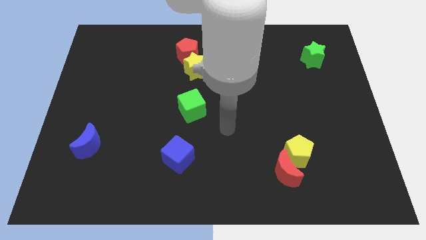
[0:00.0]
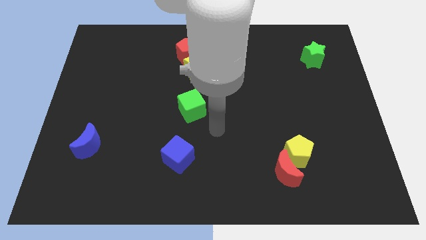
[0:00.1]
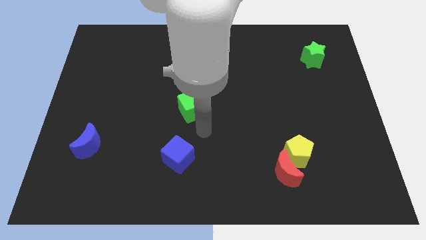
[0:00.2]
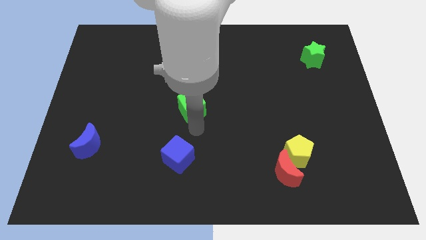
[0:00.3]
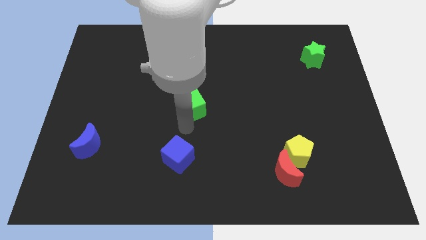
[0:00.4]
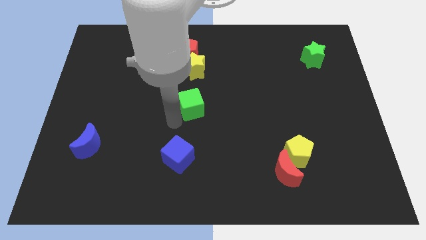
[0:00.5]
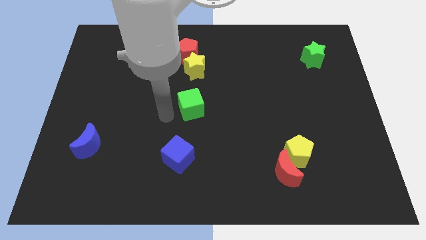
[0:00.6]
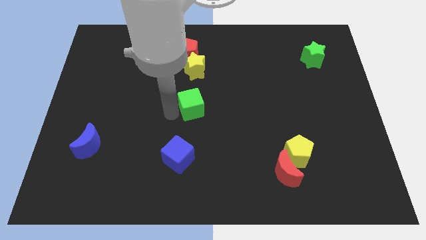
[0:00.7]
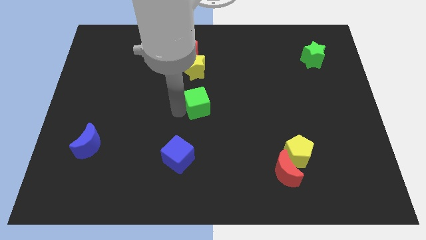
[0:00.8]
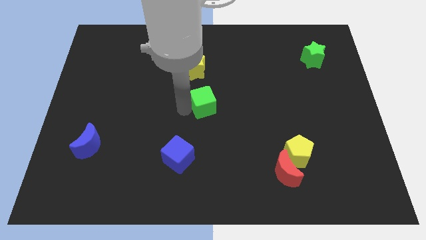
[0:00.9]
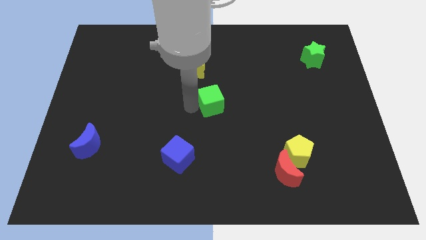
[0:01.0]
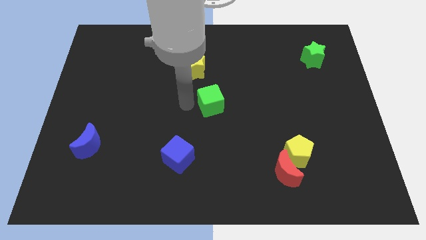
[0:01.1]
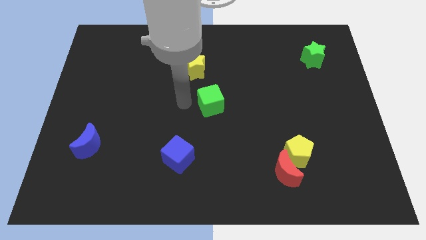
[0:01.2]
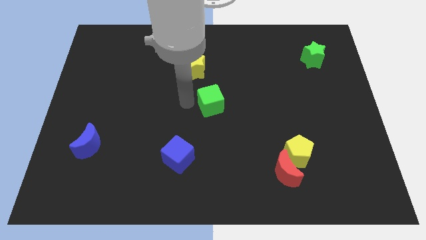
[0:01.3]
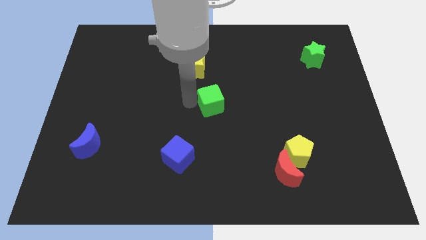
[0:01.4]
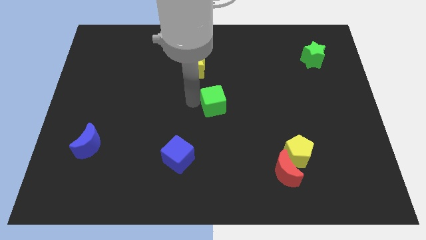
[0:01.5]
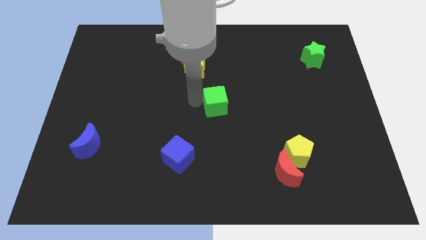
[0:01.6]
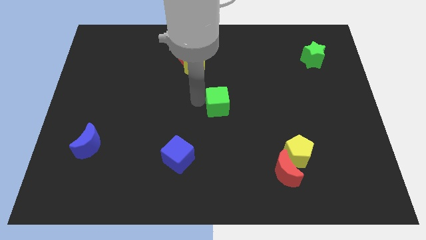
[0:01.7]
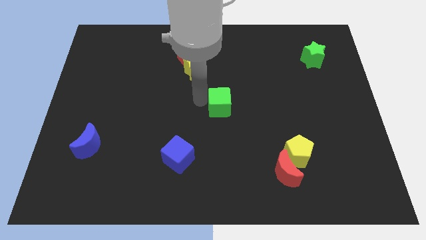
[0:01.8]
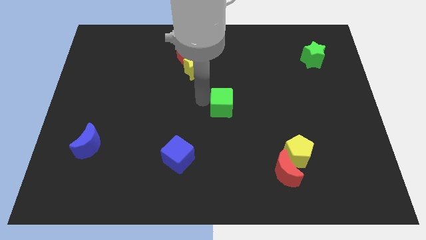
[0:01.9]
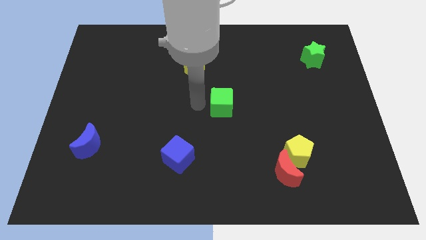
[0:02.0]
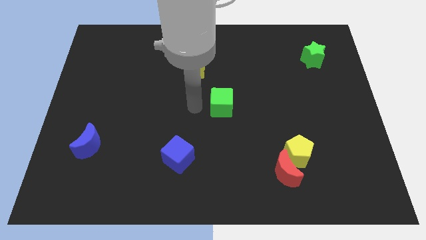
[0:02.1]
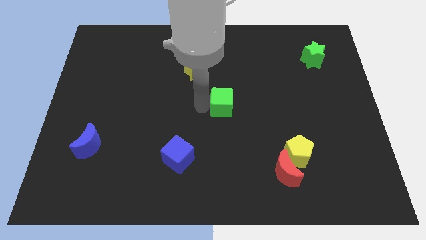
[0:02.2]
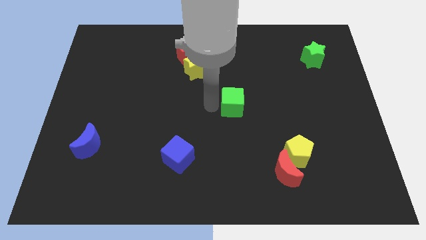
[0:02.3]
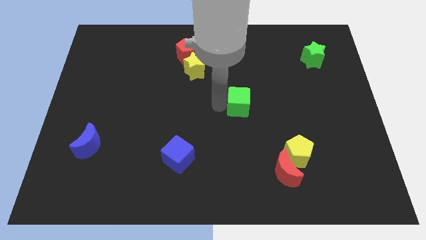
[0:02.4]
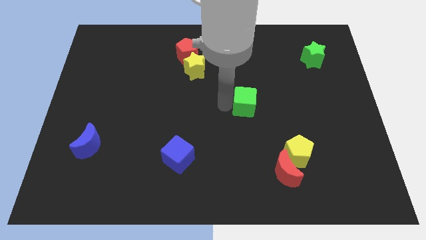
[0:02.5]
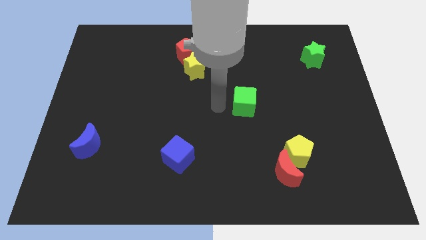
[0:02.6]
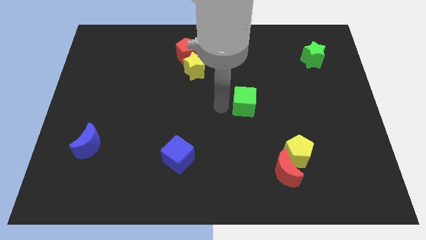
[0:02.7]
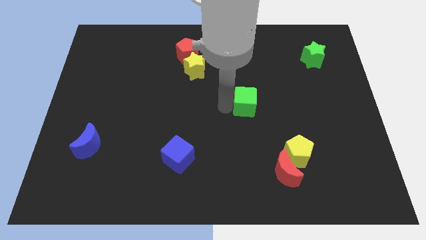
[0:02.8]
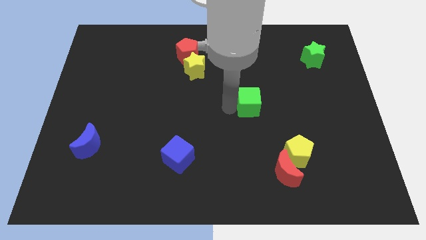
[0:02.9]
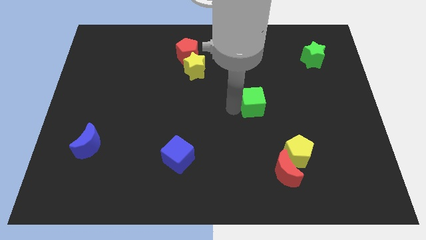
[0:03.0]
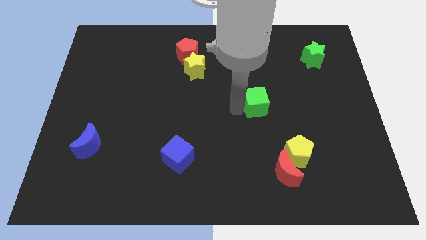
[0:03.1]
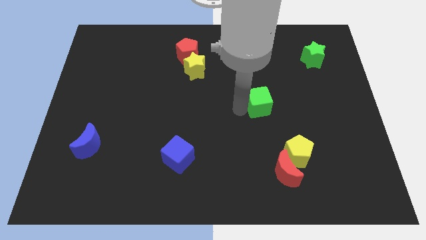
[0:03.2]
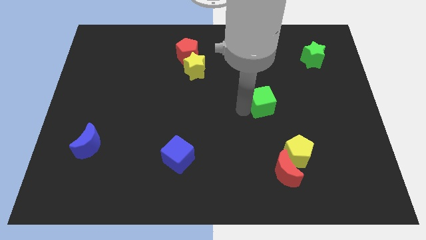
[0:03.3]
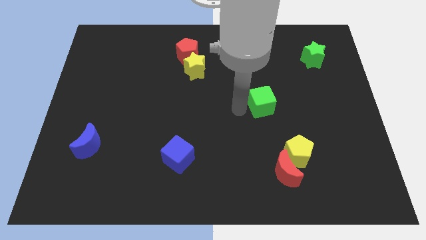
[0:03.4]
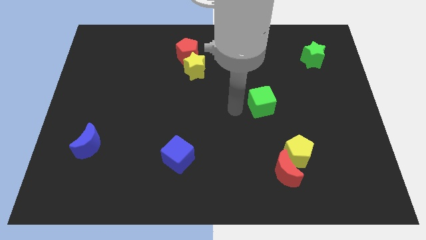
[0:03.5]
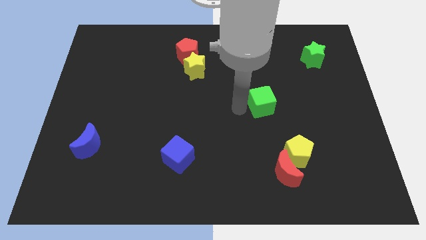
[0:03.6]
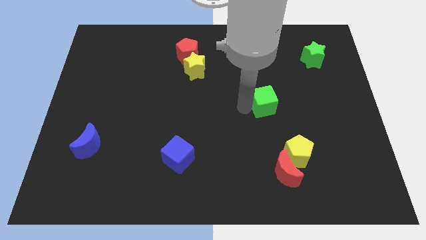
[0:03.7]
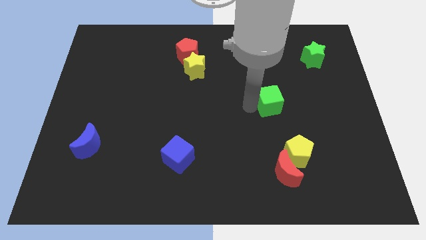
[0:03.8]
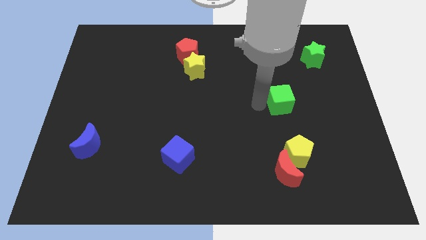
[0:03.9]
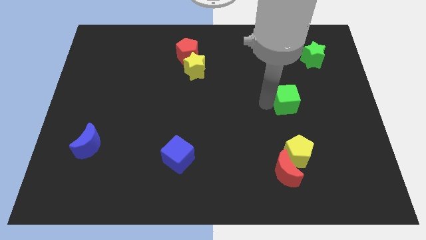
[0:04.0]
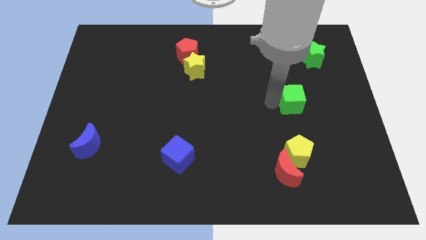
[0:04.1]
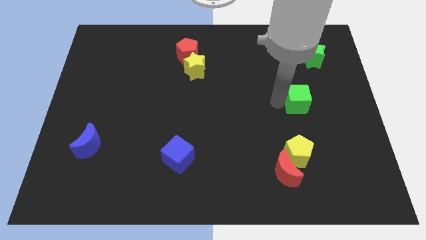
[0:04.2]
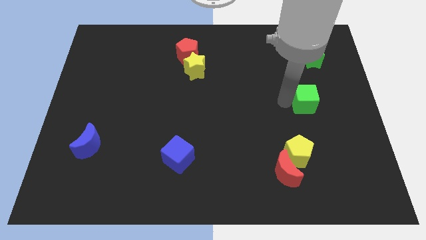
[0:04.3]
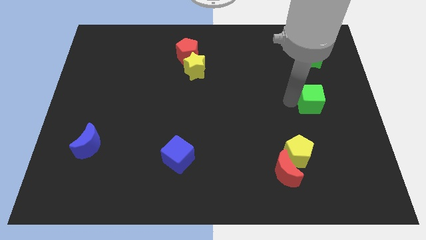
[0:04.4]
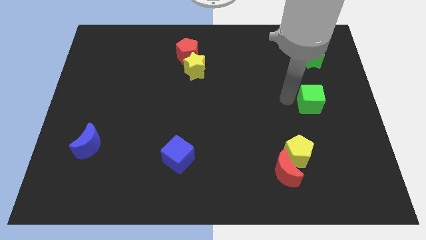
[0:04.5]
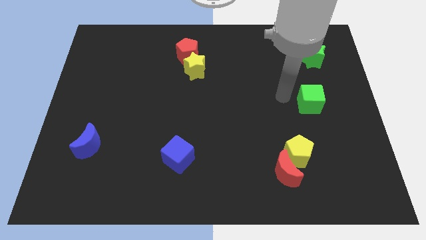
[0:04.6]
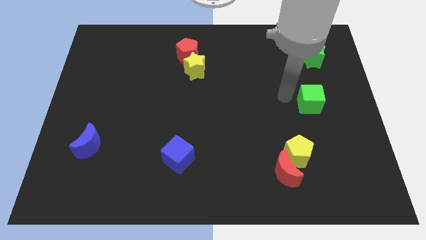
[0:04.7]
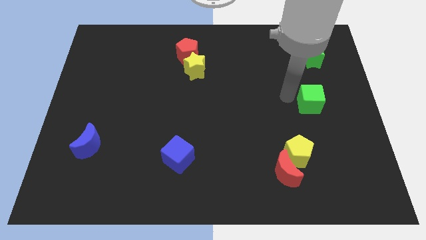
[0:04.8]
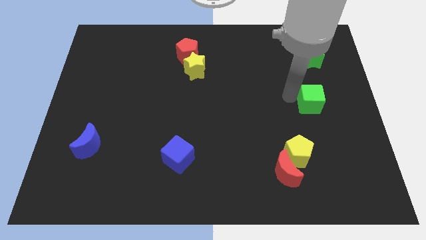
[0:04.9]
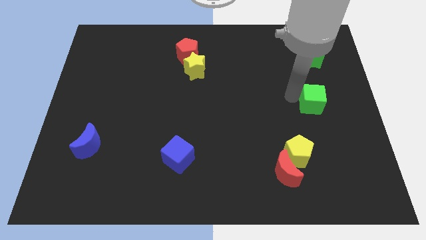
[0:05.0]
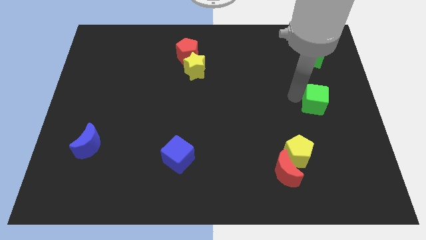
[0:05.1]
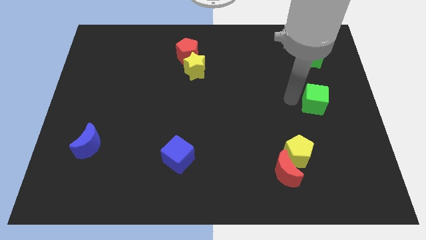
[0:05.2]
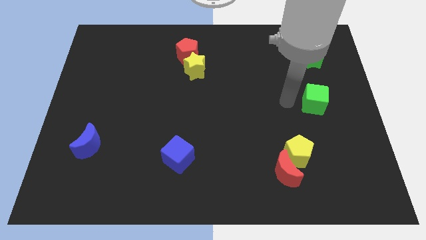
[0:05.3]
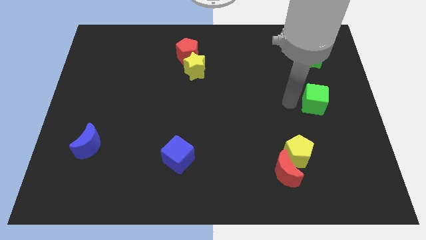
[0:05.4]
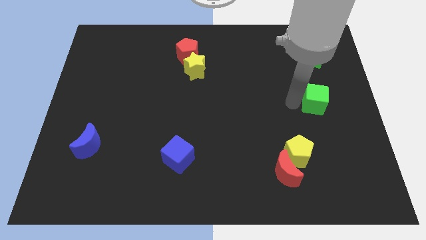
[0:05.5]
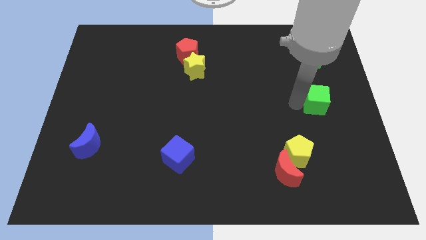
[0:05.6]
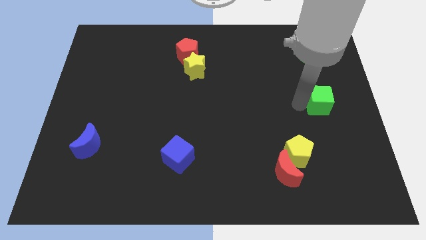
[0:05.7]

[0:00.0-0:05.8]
slide the green cube to the right side of the board
